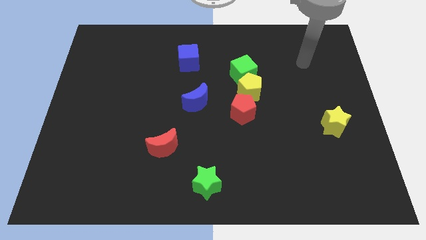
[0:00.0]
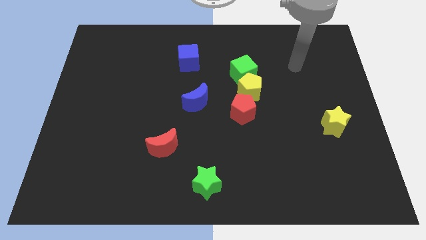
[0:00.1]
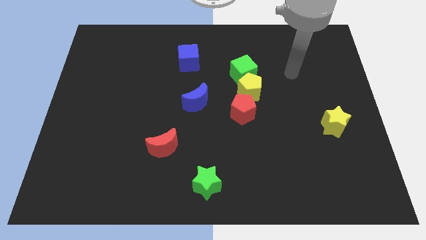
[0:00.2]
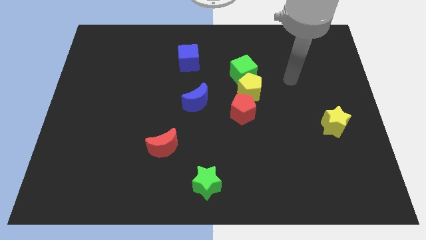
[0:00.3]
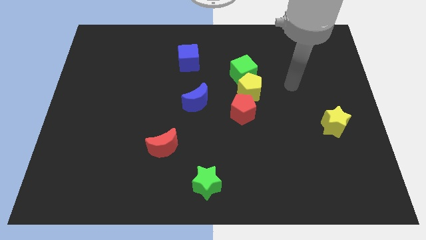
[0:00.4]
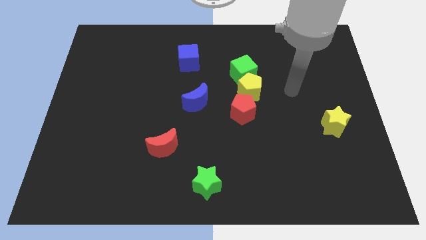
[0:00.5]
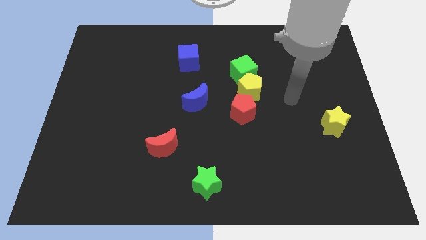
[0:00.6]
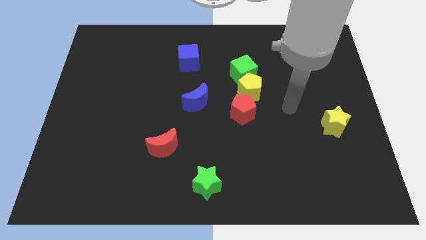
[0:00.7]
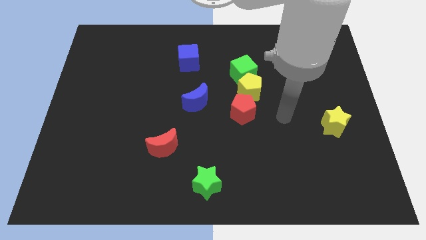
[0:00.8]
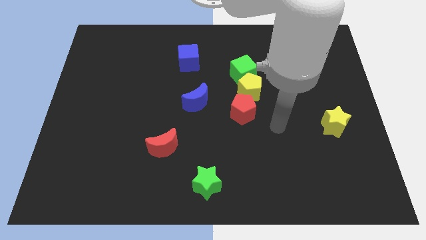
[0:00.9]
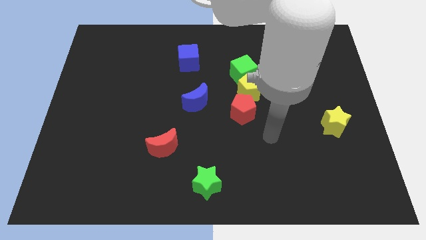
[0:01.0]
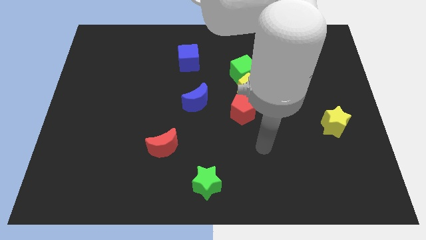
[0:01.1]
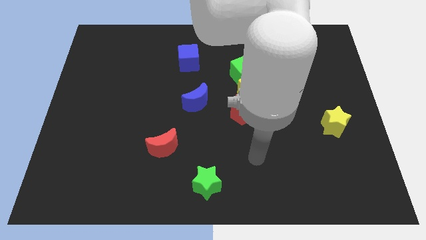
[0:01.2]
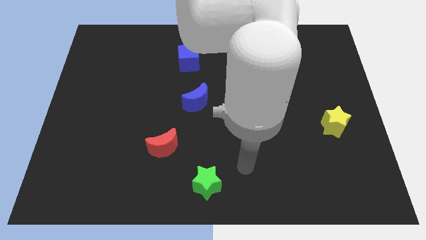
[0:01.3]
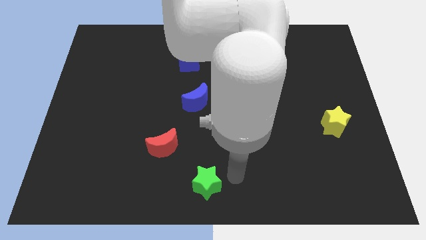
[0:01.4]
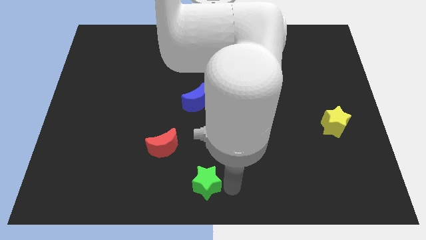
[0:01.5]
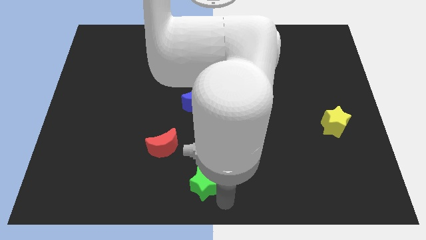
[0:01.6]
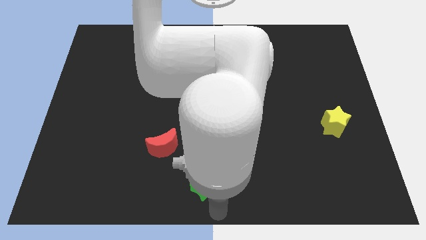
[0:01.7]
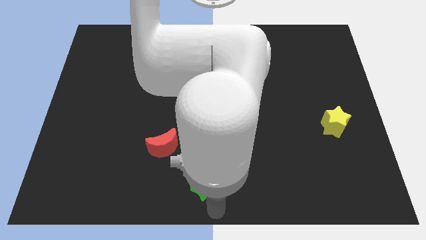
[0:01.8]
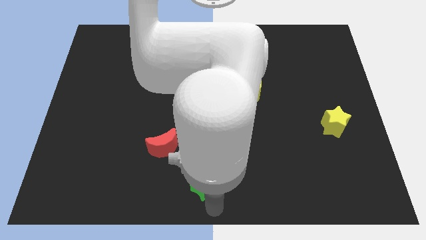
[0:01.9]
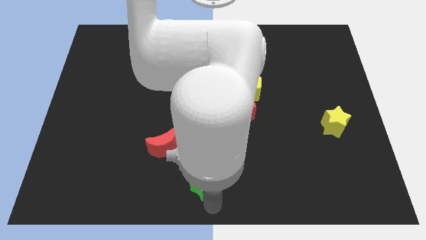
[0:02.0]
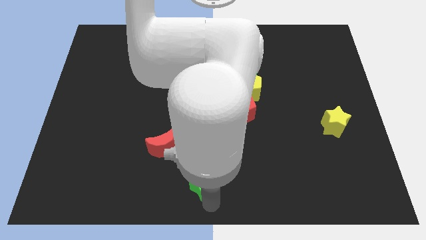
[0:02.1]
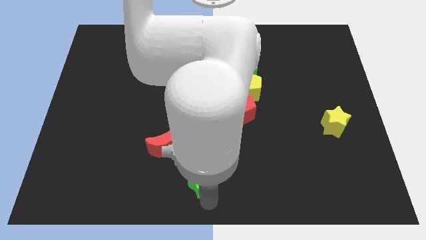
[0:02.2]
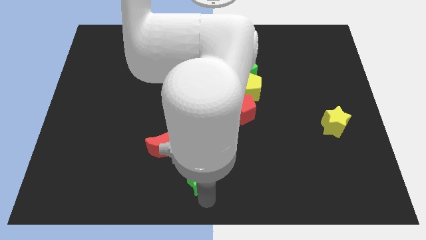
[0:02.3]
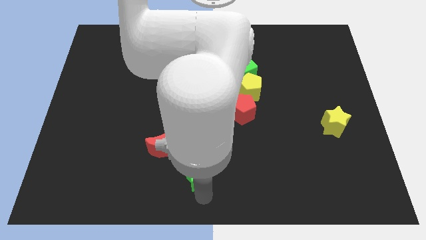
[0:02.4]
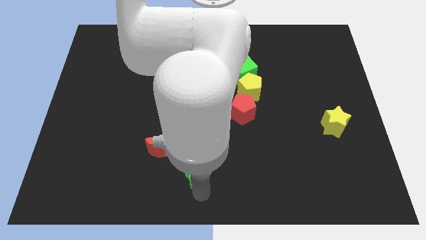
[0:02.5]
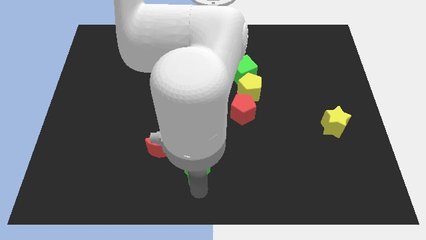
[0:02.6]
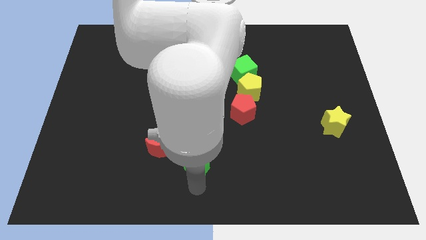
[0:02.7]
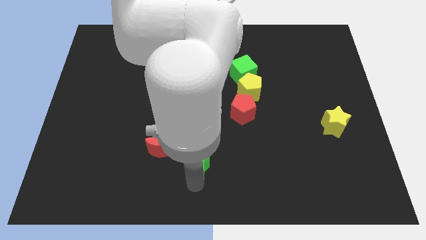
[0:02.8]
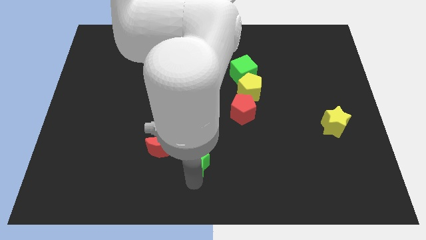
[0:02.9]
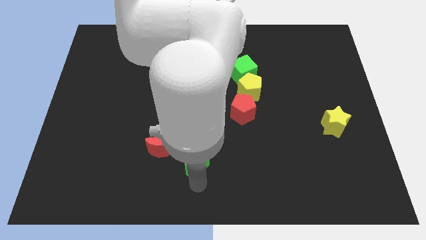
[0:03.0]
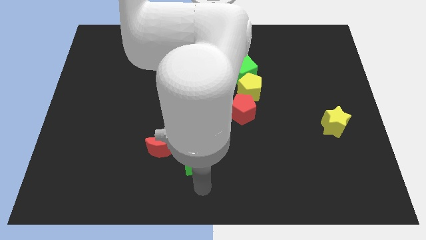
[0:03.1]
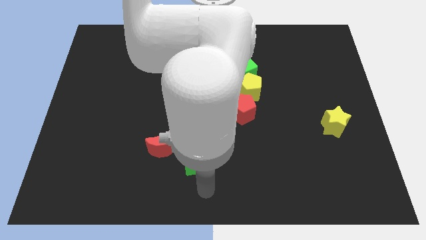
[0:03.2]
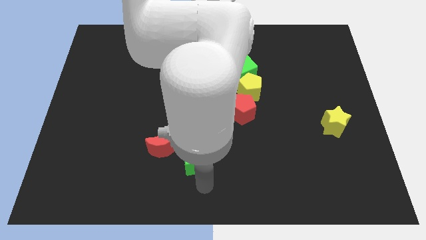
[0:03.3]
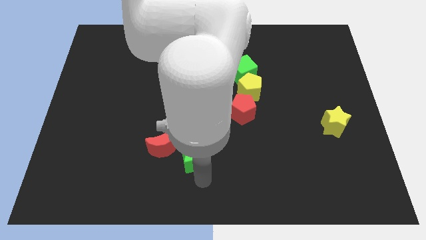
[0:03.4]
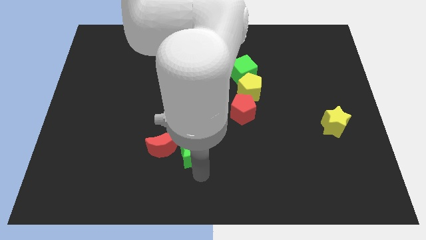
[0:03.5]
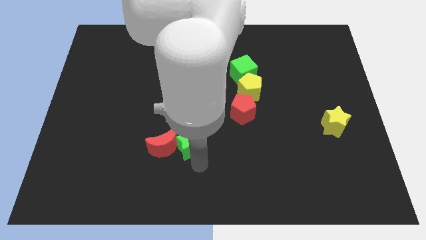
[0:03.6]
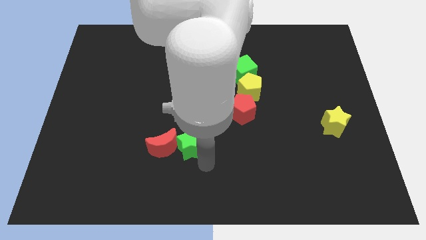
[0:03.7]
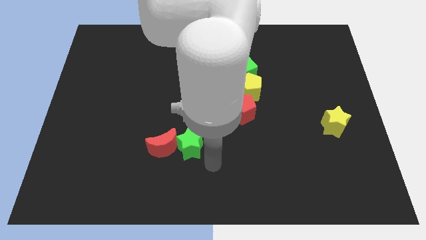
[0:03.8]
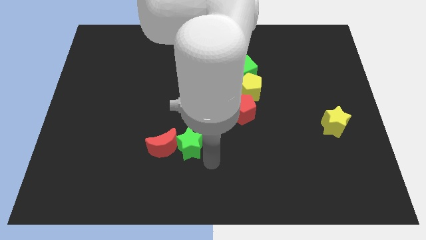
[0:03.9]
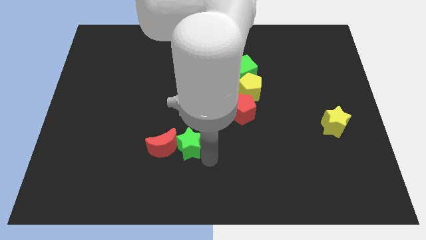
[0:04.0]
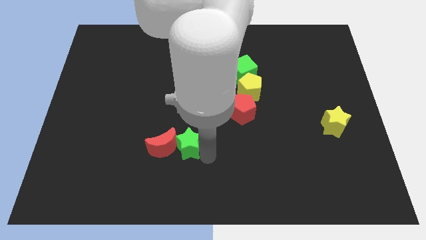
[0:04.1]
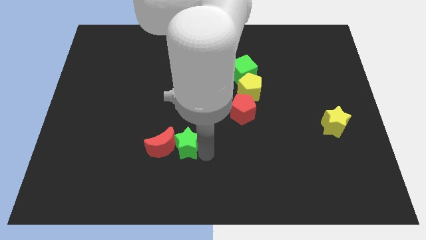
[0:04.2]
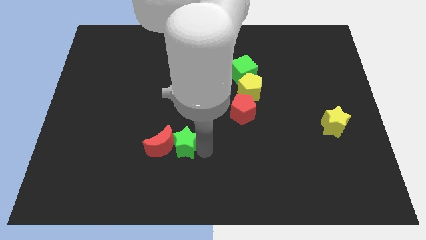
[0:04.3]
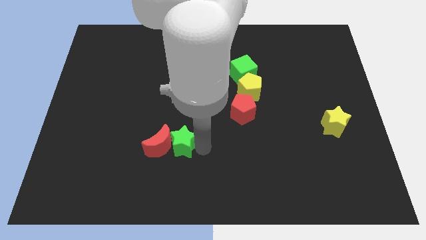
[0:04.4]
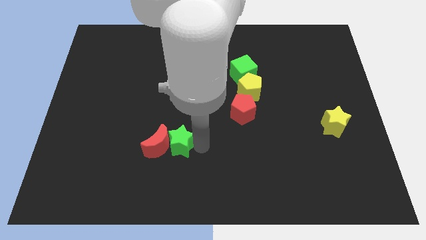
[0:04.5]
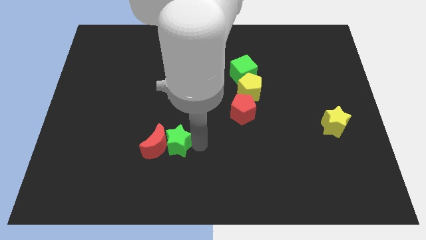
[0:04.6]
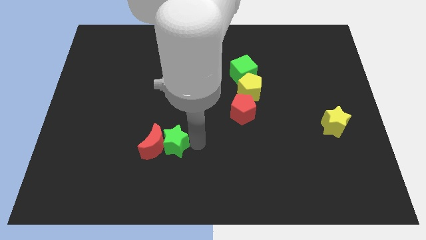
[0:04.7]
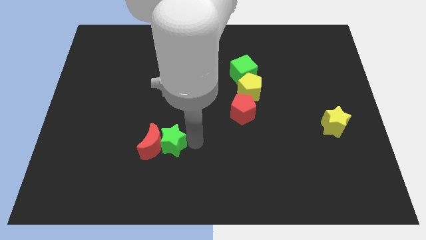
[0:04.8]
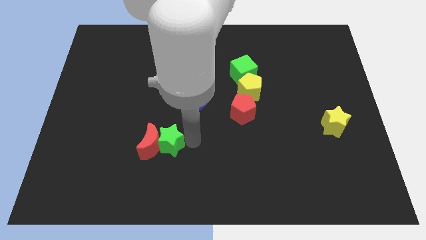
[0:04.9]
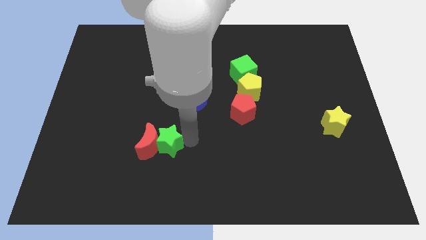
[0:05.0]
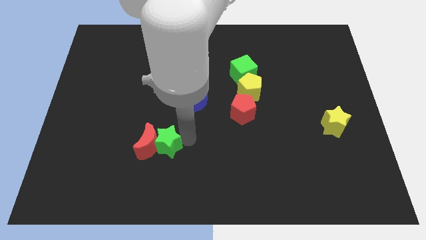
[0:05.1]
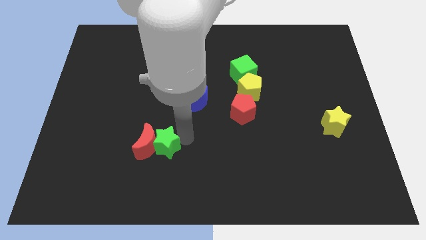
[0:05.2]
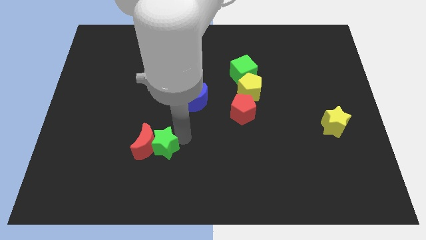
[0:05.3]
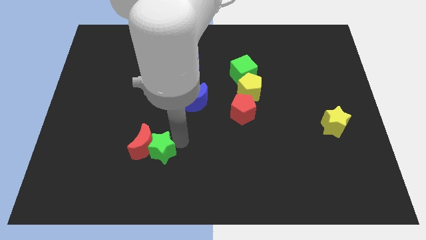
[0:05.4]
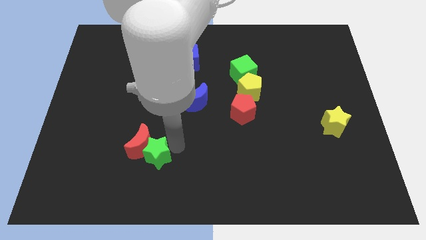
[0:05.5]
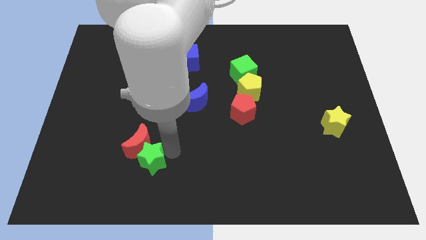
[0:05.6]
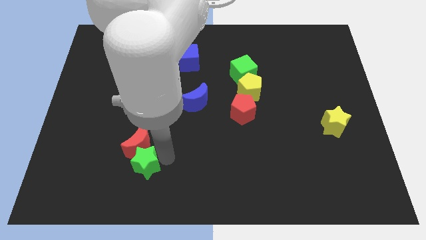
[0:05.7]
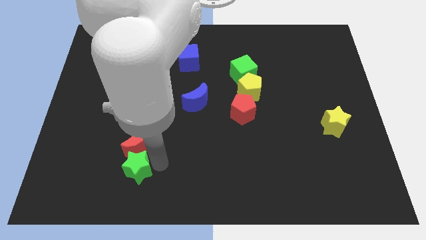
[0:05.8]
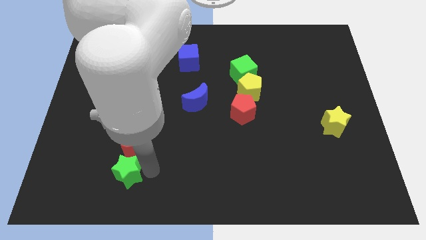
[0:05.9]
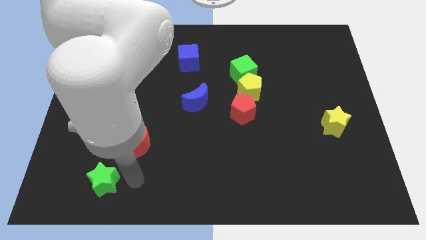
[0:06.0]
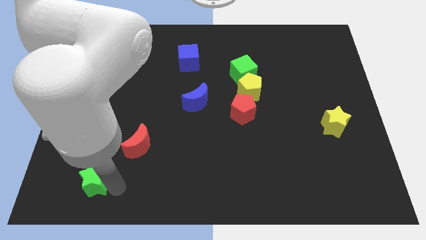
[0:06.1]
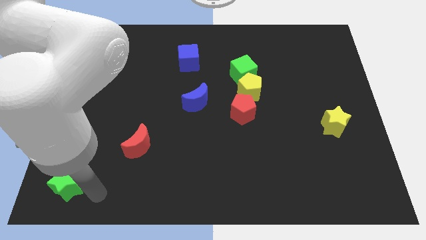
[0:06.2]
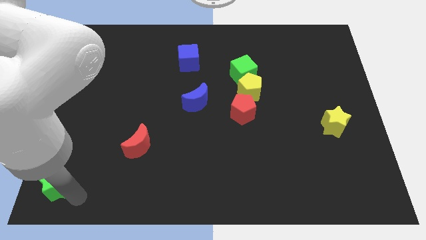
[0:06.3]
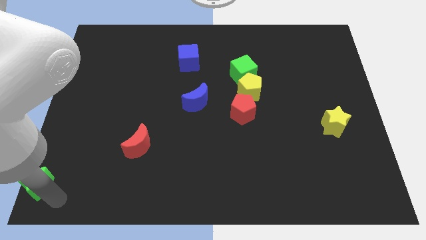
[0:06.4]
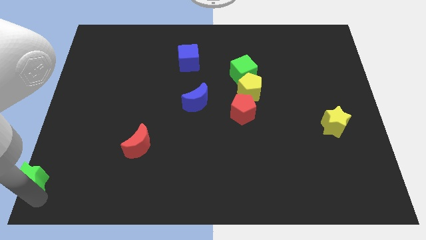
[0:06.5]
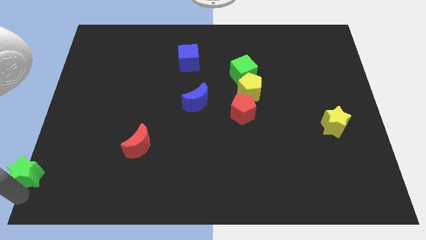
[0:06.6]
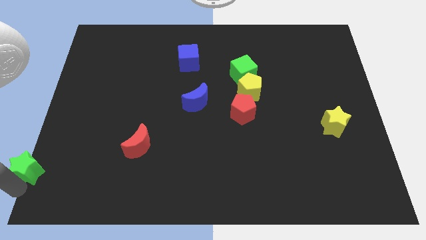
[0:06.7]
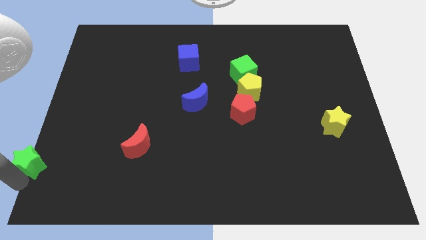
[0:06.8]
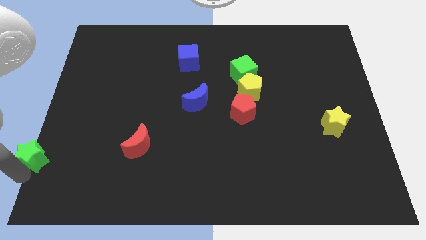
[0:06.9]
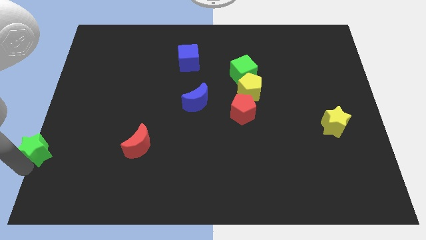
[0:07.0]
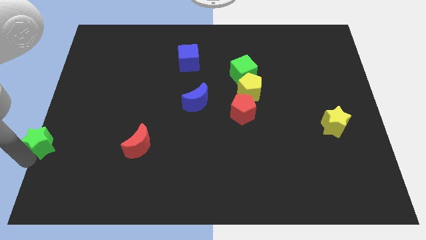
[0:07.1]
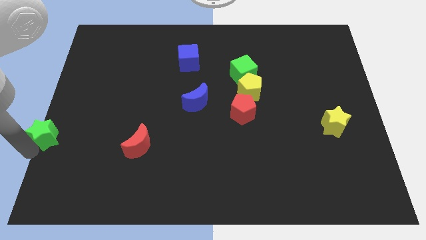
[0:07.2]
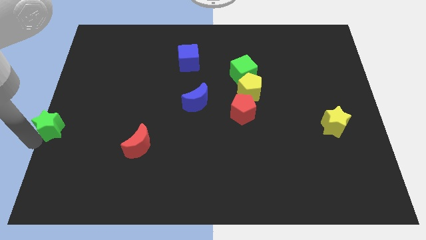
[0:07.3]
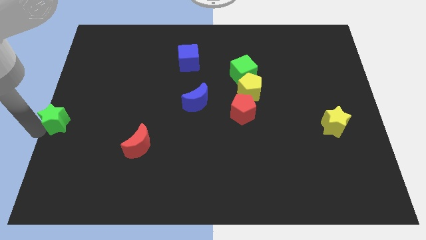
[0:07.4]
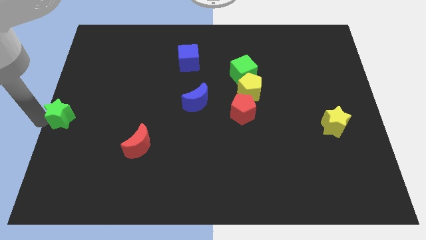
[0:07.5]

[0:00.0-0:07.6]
move the green star upwards and left
